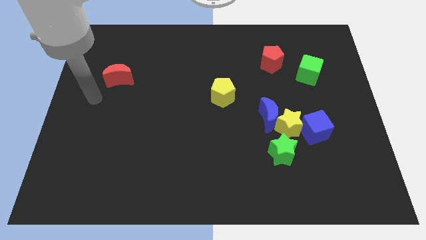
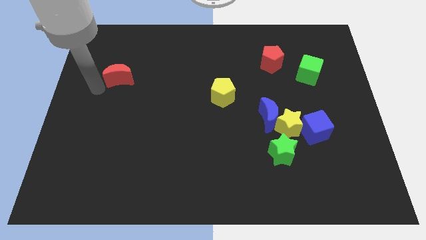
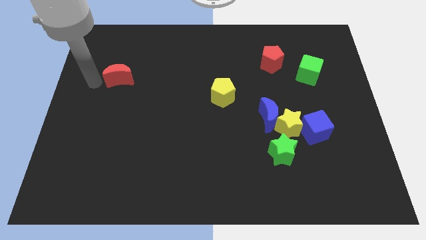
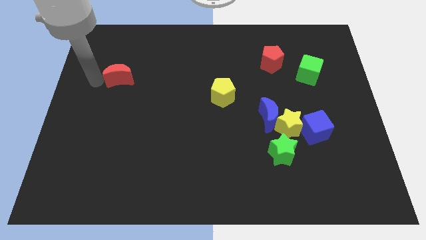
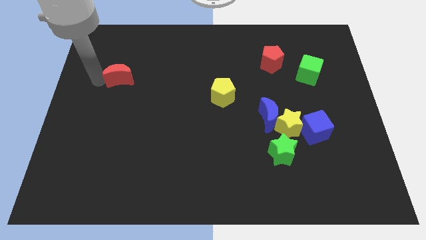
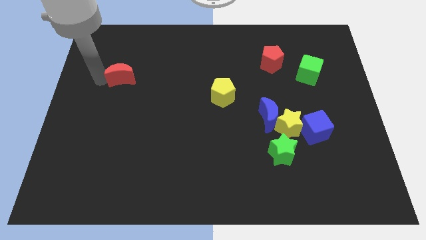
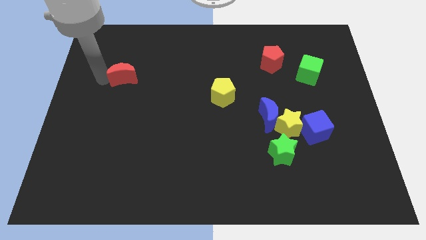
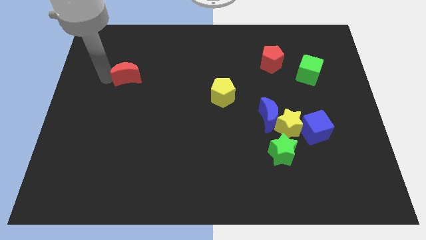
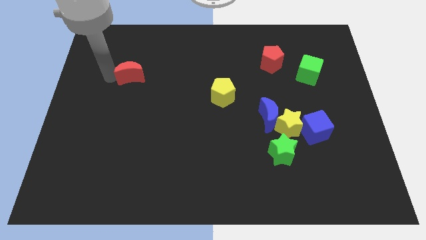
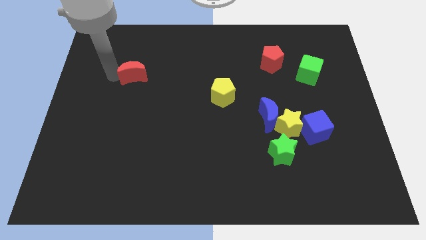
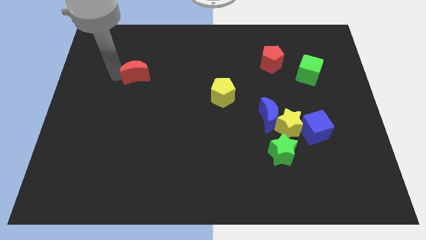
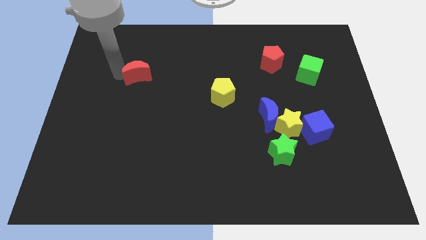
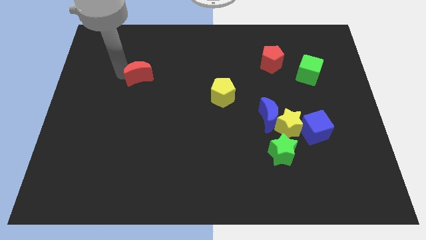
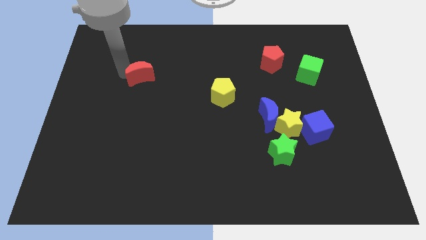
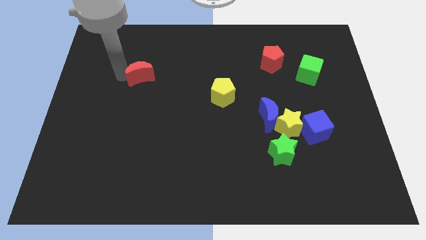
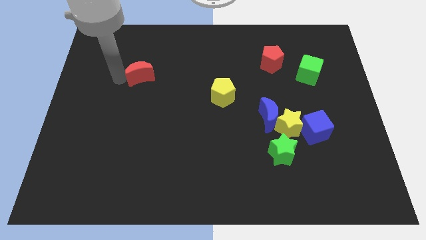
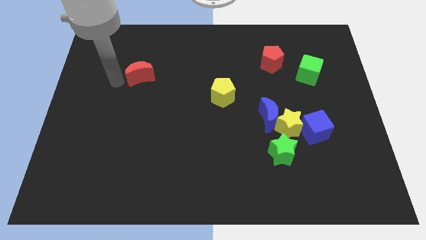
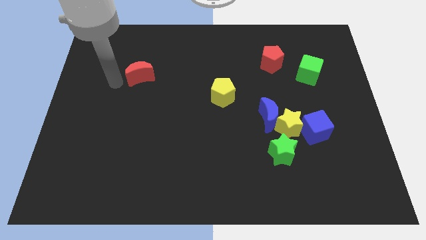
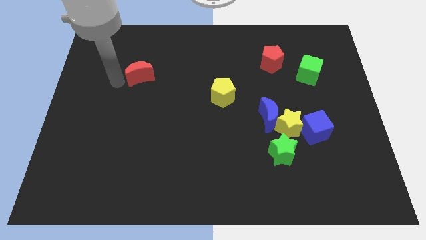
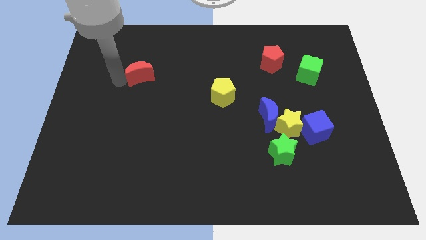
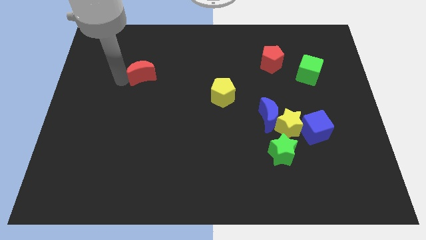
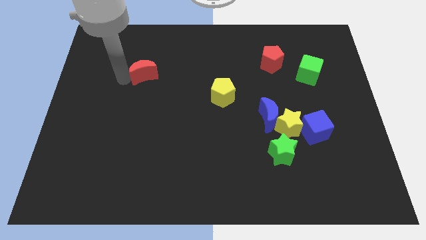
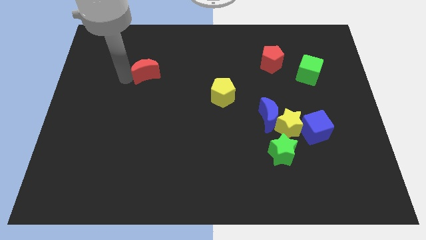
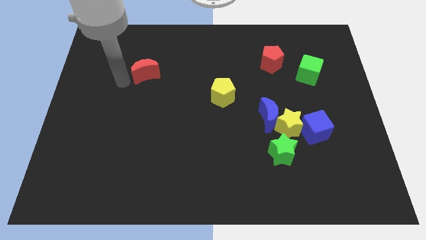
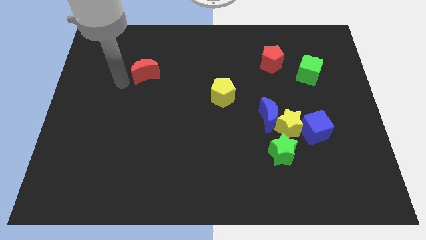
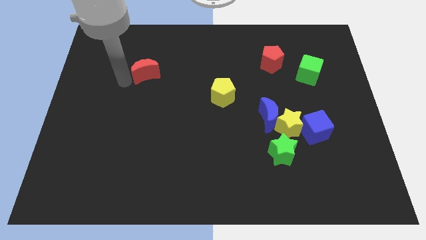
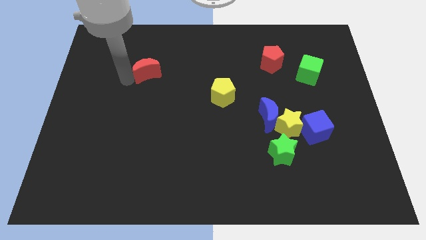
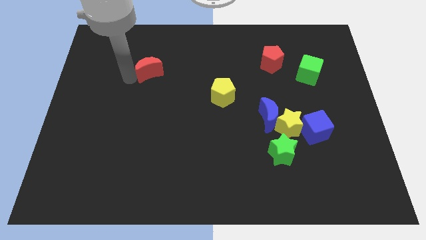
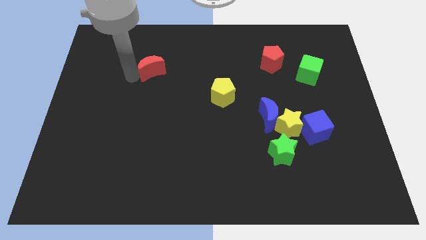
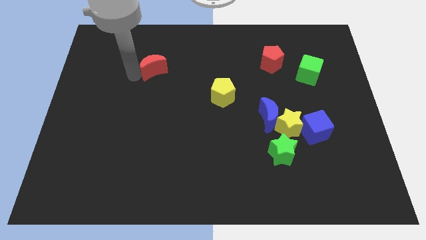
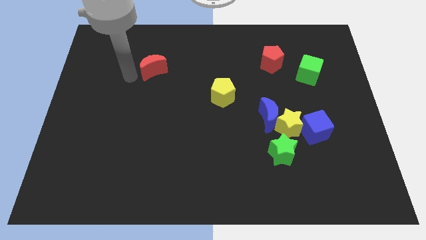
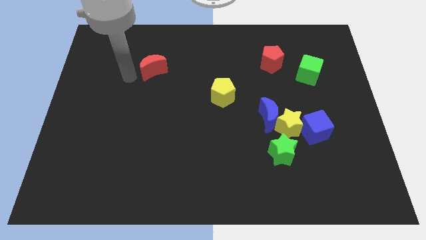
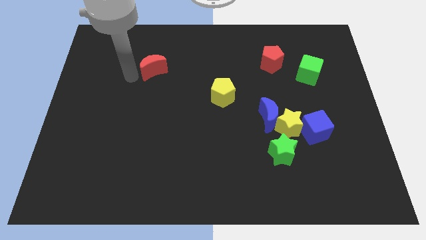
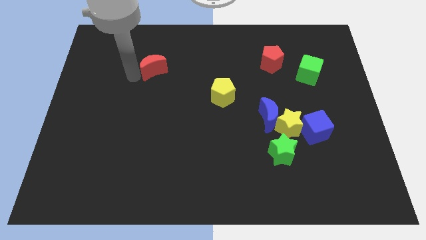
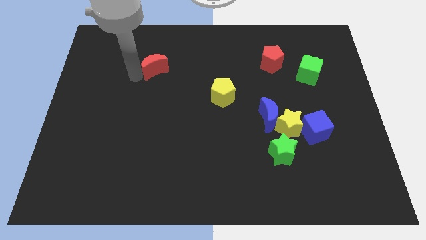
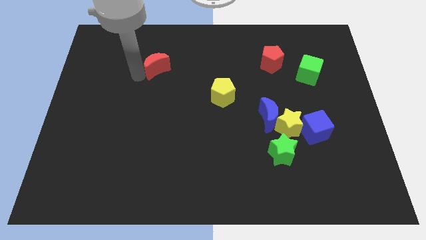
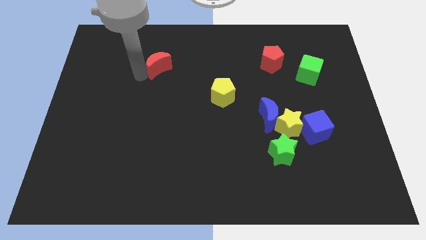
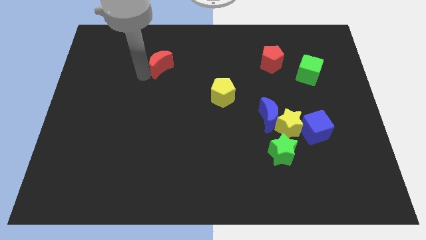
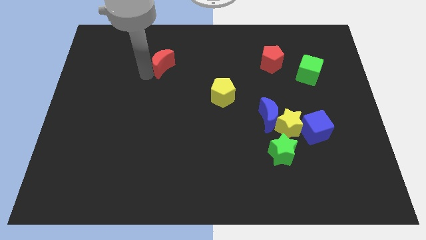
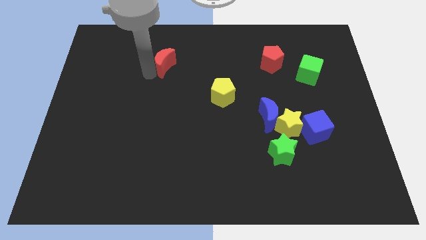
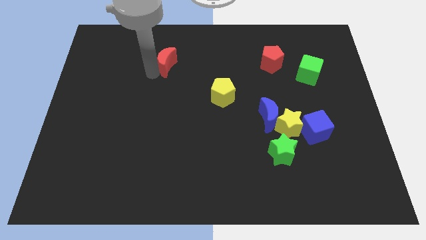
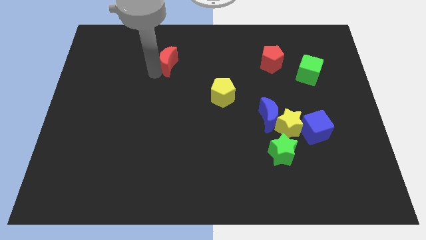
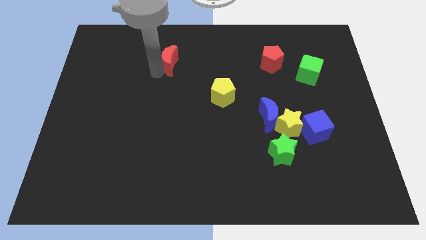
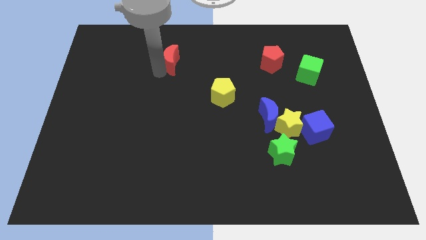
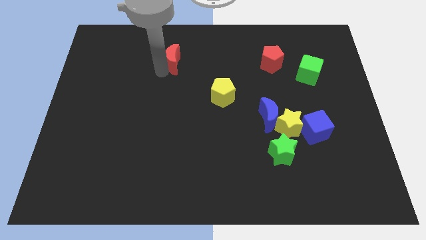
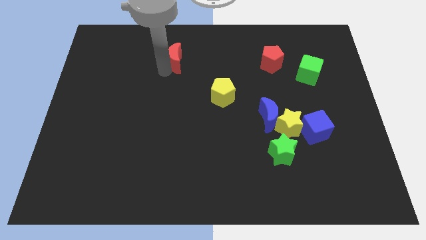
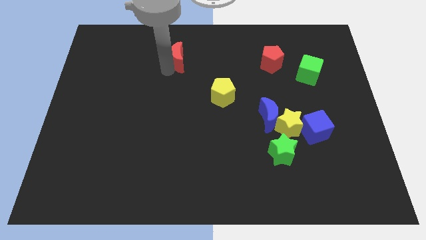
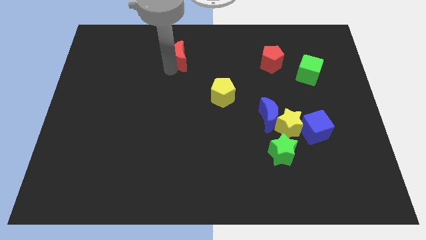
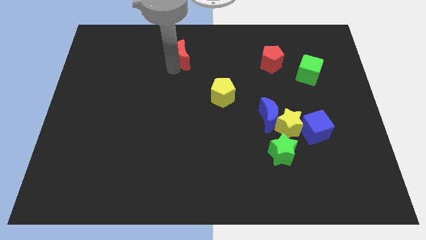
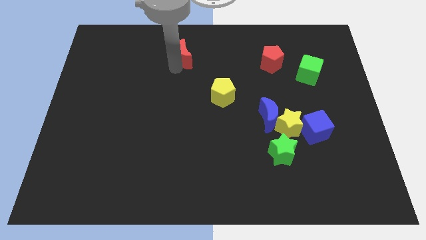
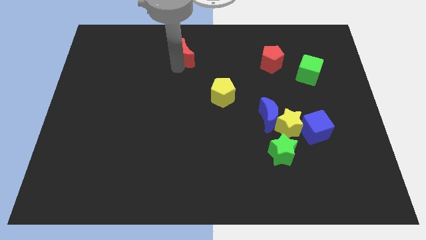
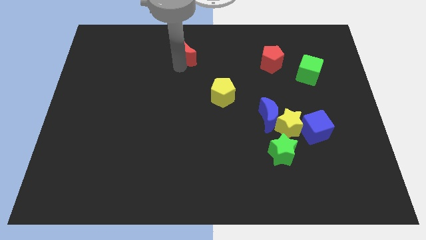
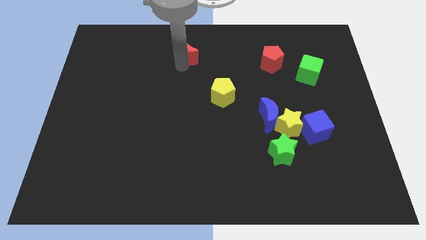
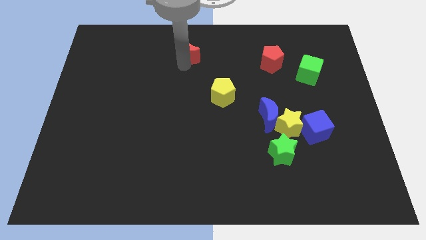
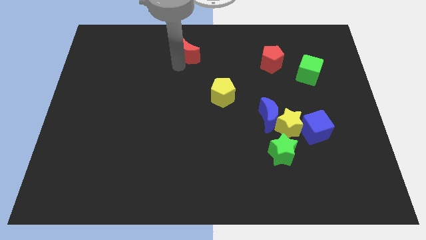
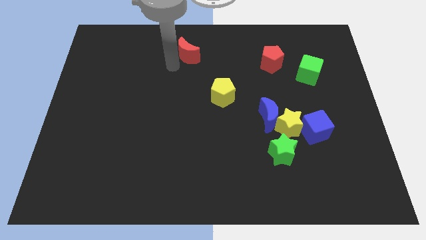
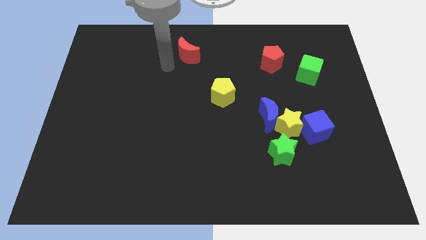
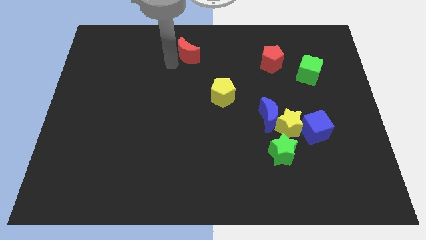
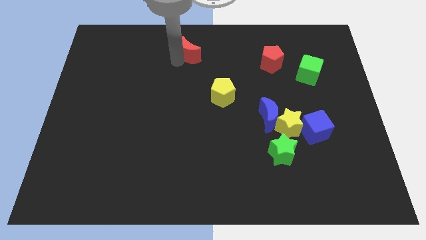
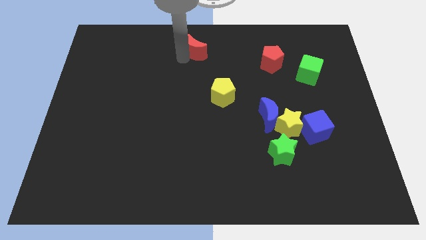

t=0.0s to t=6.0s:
move the red moon to the towards your base
